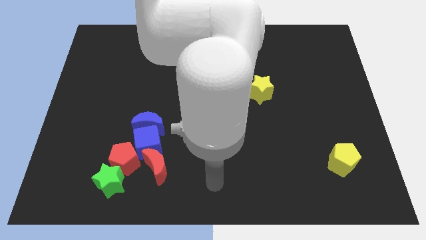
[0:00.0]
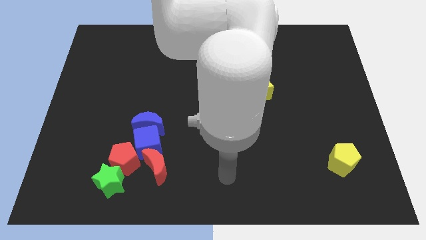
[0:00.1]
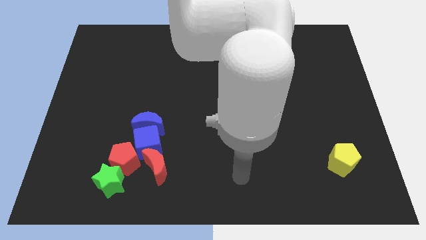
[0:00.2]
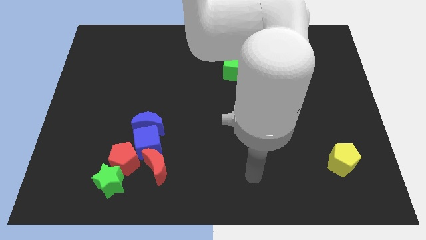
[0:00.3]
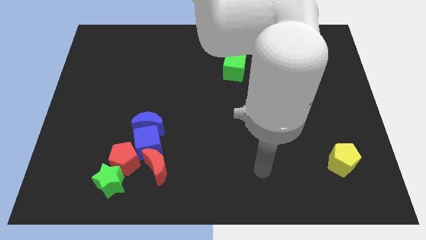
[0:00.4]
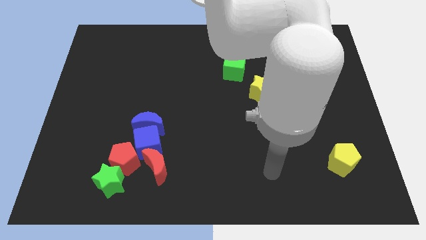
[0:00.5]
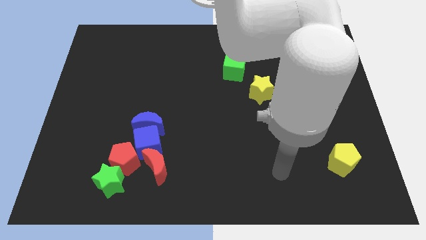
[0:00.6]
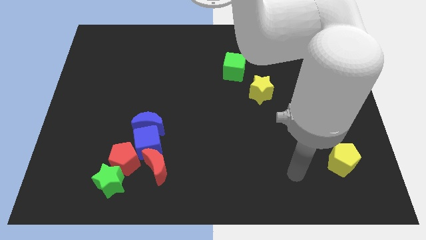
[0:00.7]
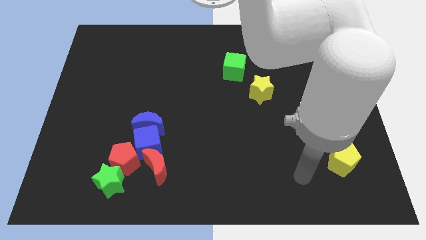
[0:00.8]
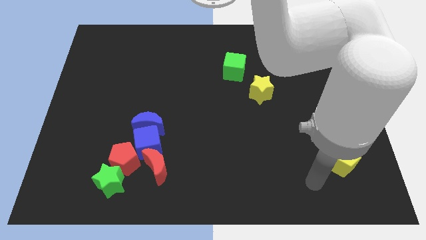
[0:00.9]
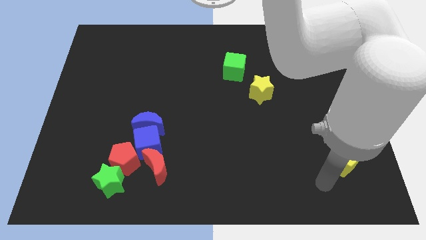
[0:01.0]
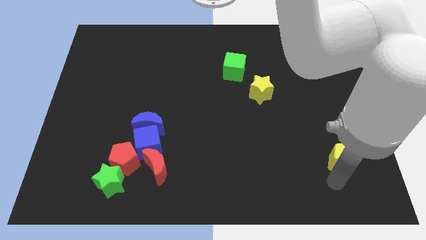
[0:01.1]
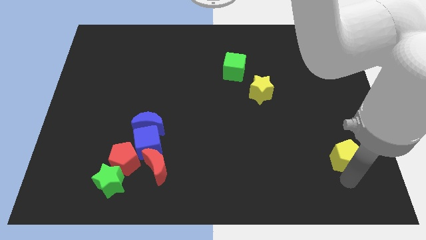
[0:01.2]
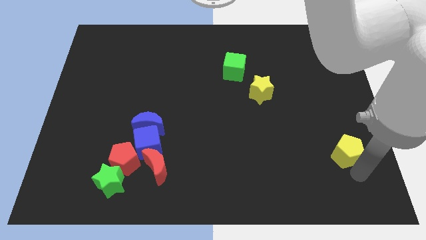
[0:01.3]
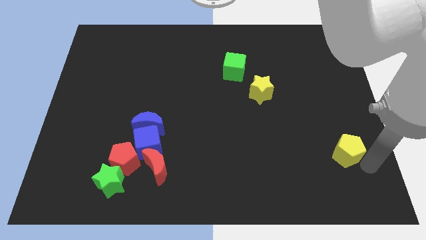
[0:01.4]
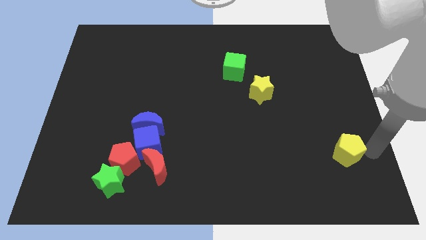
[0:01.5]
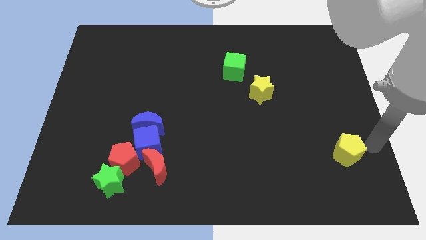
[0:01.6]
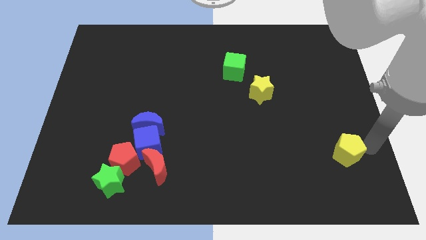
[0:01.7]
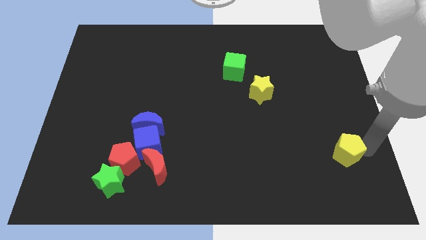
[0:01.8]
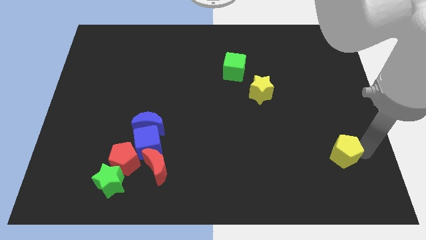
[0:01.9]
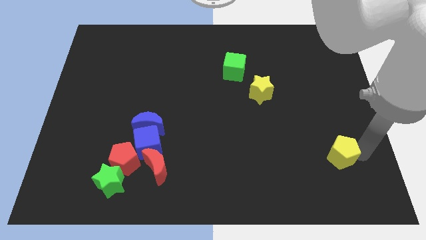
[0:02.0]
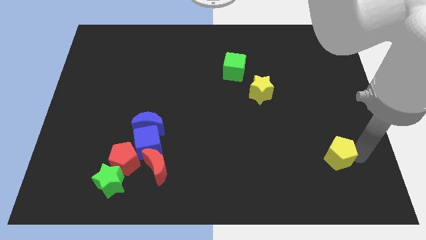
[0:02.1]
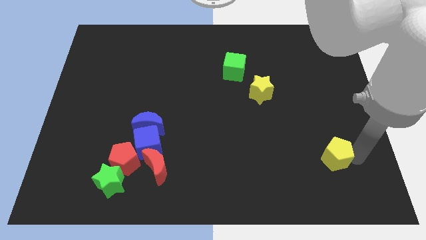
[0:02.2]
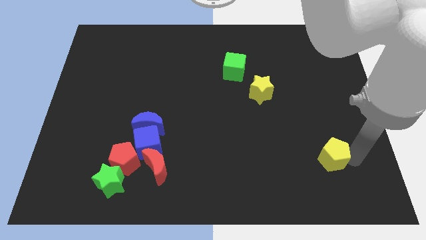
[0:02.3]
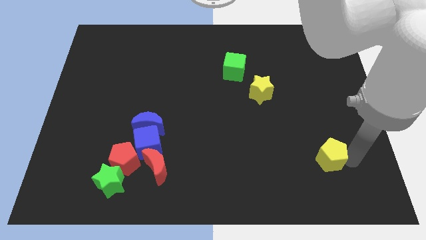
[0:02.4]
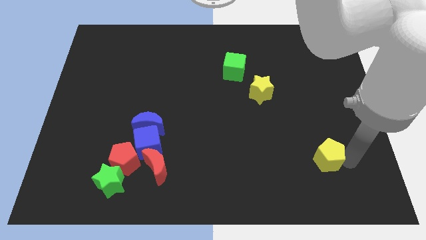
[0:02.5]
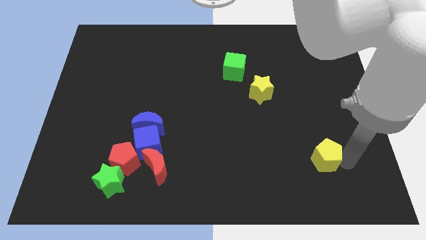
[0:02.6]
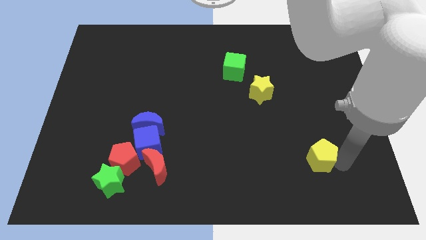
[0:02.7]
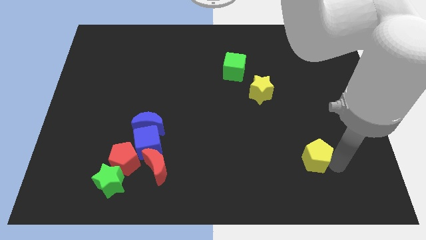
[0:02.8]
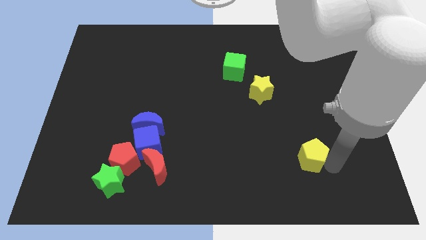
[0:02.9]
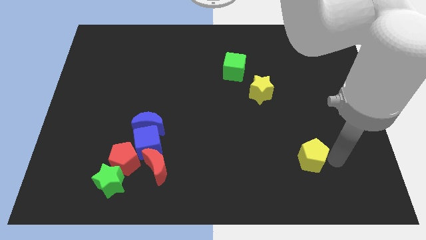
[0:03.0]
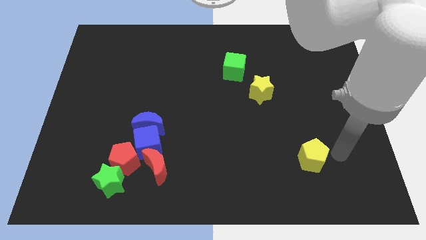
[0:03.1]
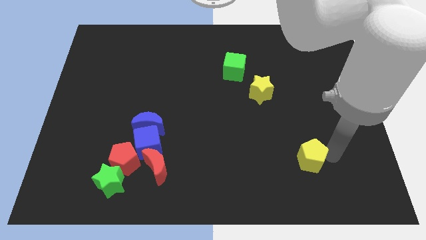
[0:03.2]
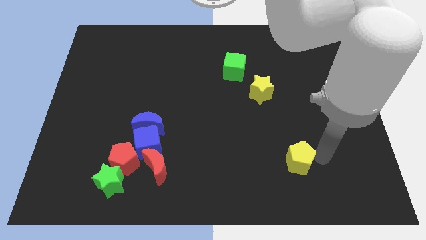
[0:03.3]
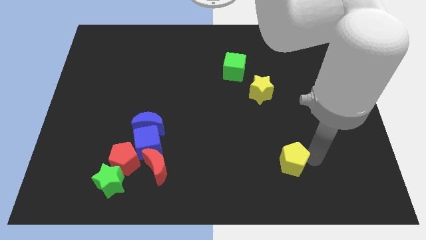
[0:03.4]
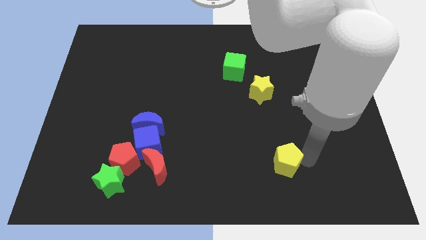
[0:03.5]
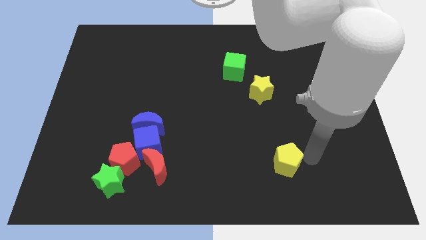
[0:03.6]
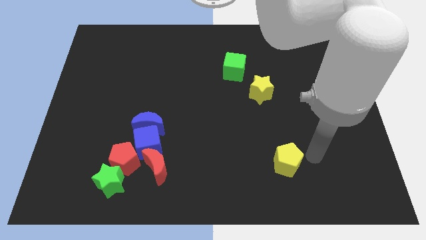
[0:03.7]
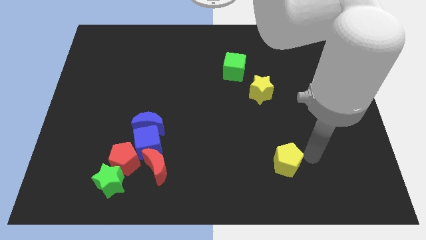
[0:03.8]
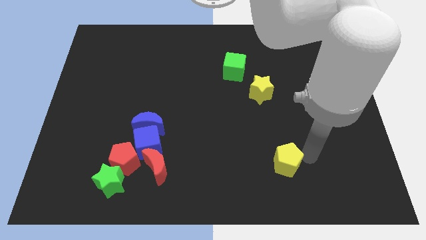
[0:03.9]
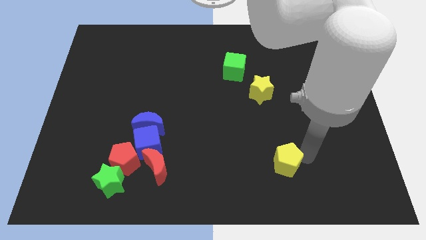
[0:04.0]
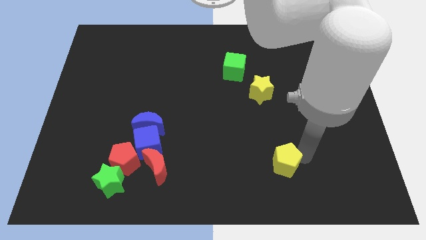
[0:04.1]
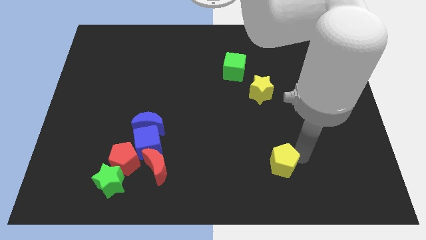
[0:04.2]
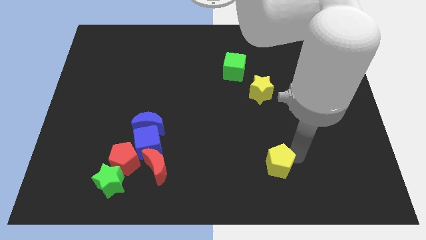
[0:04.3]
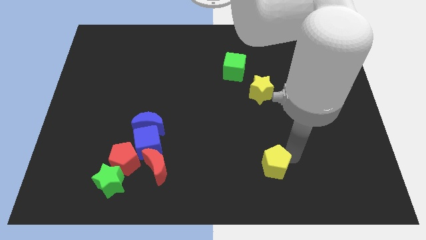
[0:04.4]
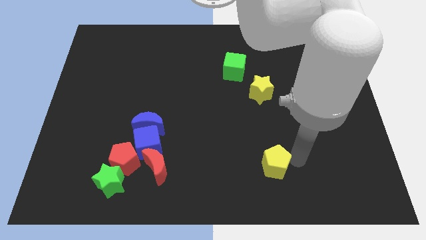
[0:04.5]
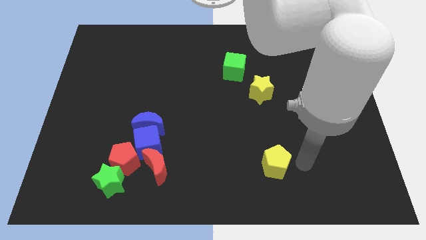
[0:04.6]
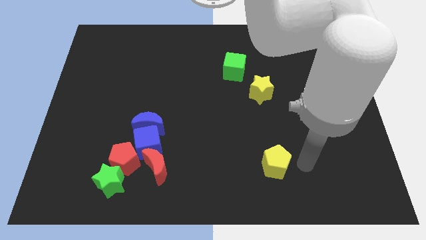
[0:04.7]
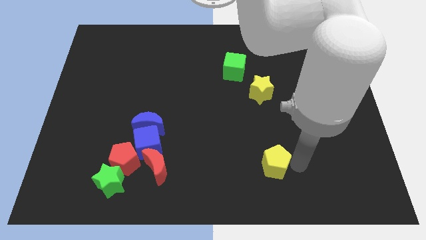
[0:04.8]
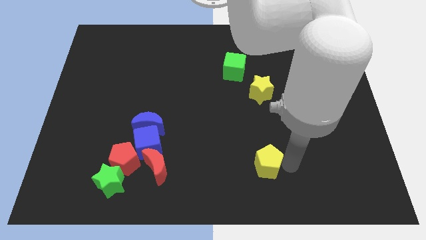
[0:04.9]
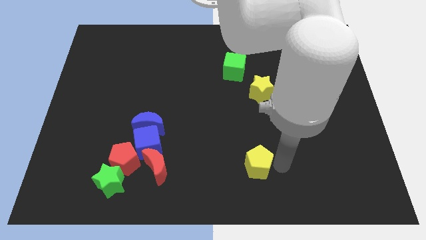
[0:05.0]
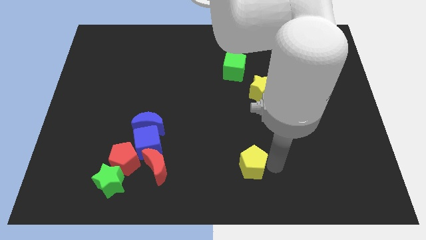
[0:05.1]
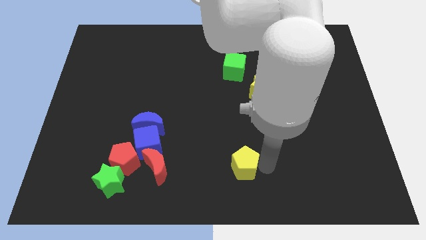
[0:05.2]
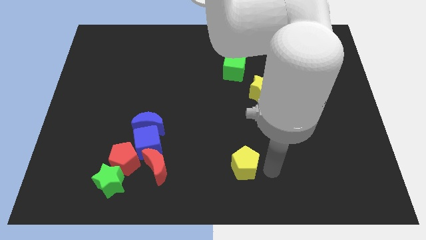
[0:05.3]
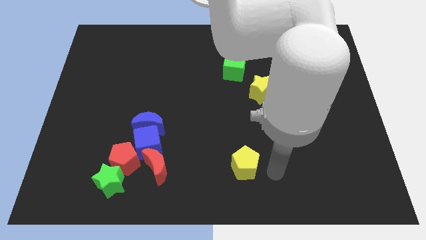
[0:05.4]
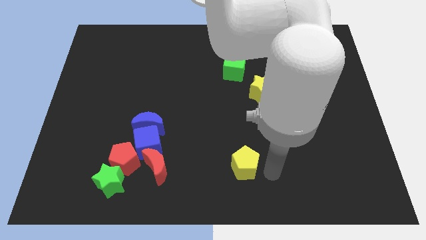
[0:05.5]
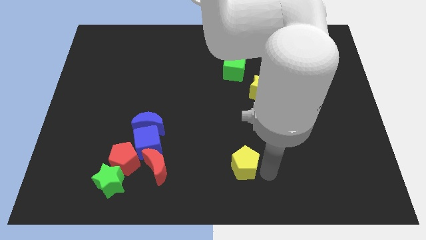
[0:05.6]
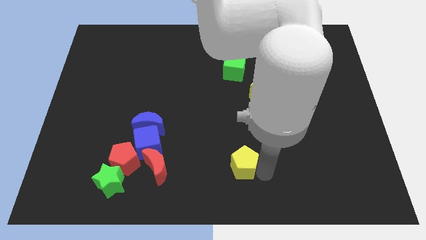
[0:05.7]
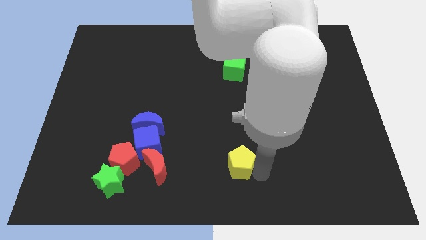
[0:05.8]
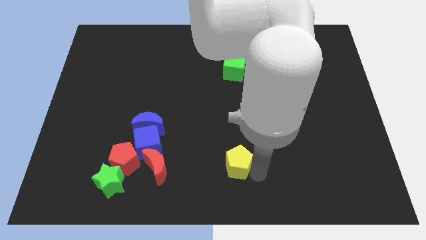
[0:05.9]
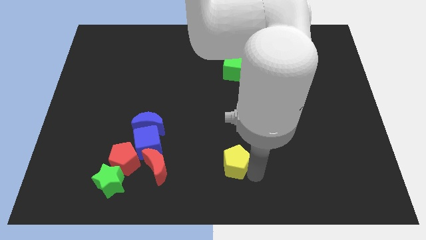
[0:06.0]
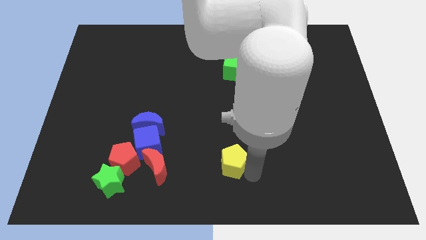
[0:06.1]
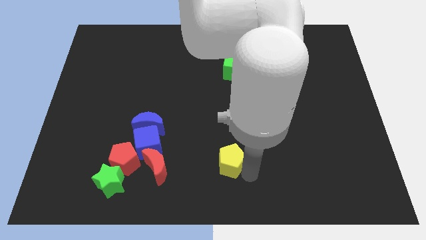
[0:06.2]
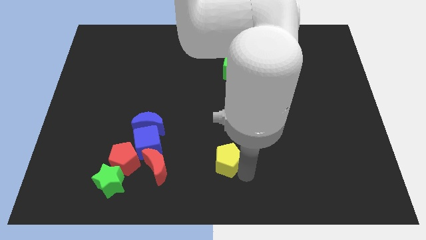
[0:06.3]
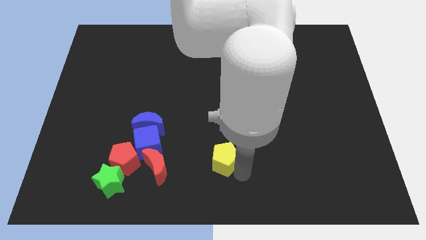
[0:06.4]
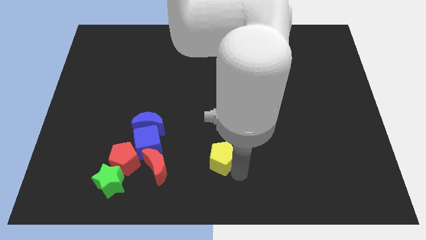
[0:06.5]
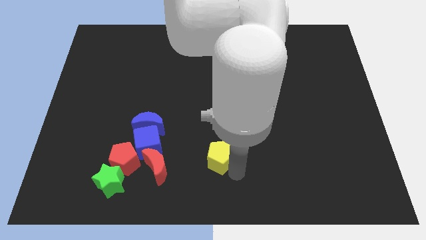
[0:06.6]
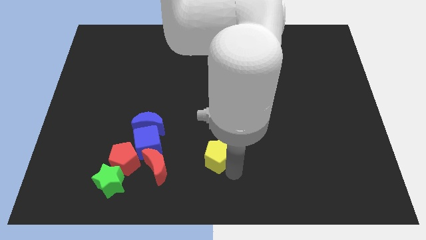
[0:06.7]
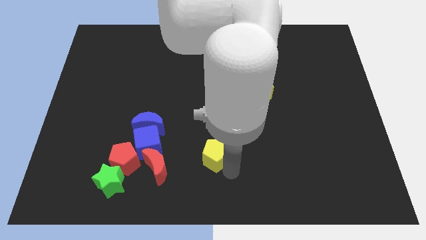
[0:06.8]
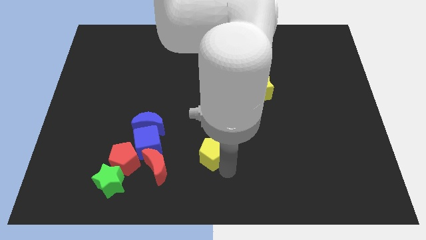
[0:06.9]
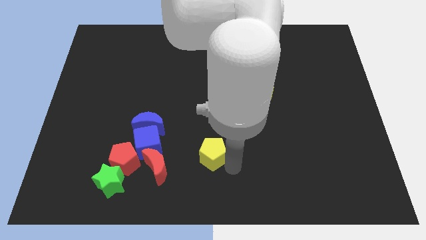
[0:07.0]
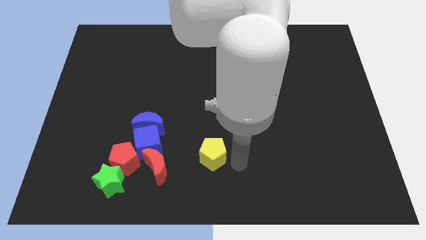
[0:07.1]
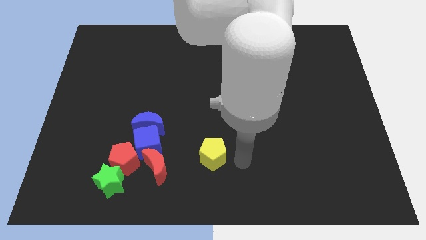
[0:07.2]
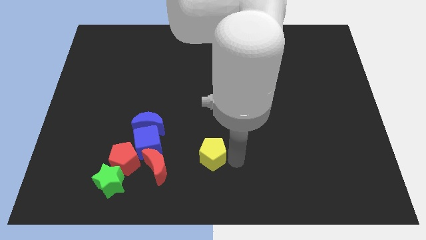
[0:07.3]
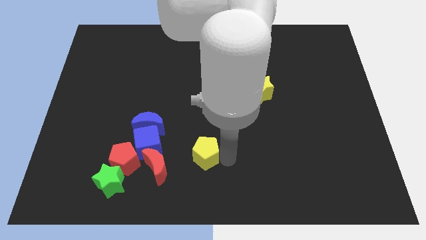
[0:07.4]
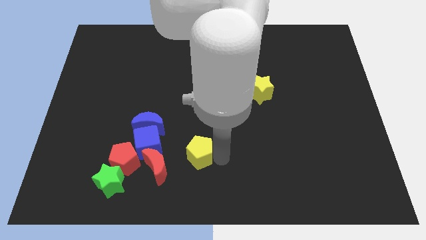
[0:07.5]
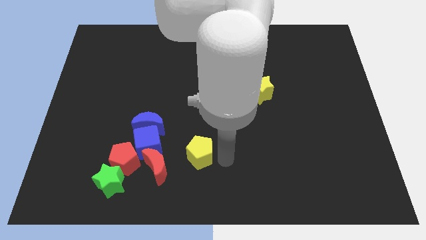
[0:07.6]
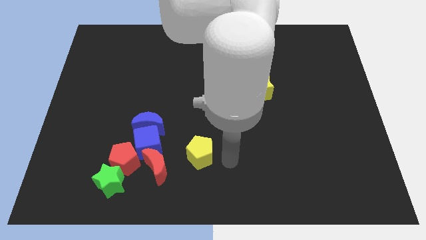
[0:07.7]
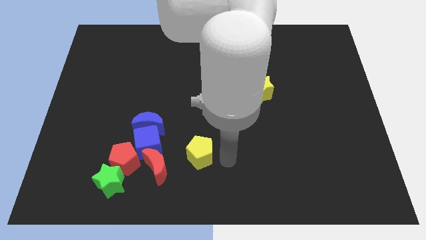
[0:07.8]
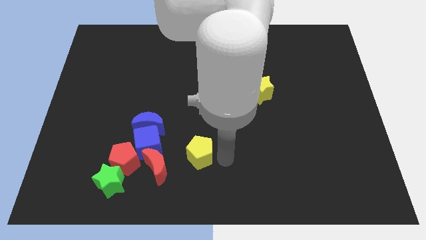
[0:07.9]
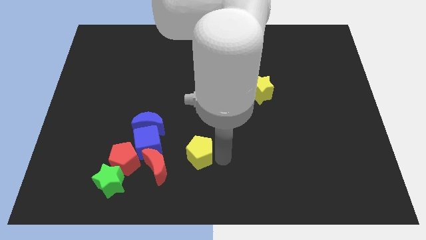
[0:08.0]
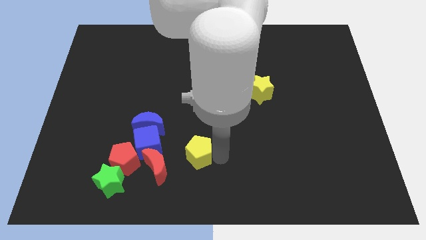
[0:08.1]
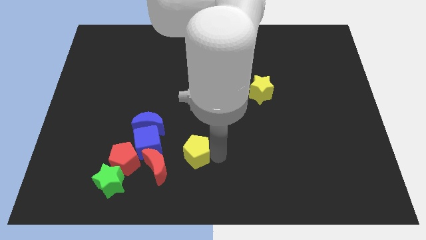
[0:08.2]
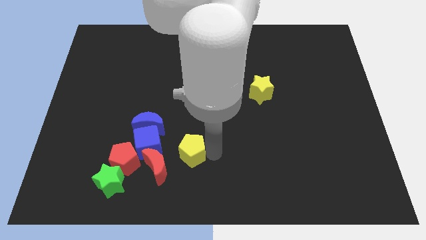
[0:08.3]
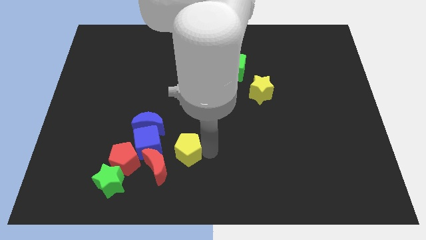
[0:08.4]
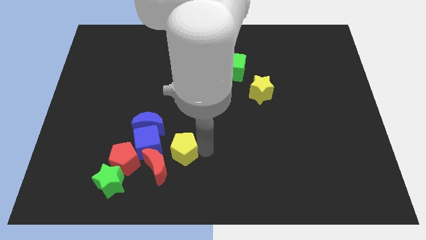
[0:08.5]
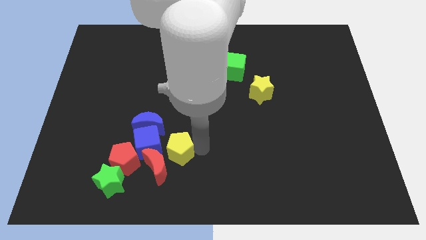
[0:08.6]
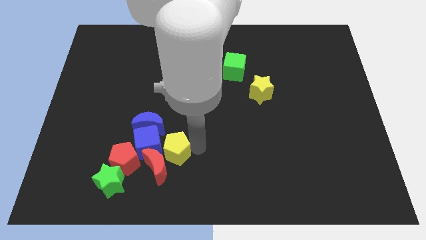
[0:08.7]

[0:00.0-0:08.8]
push the yellow pentagon towards the blue cube
